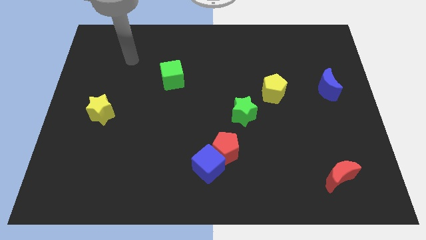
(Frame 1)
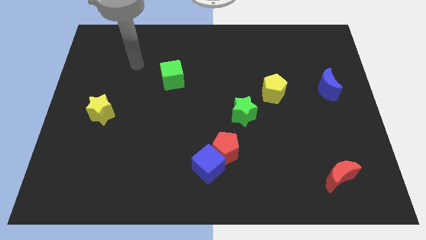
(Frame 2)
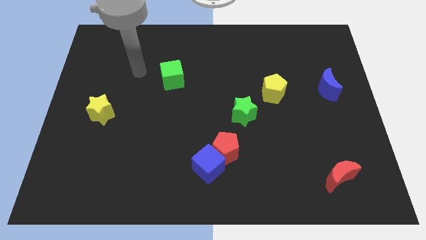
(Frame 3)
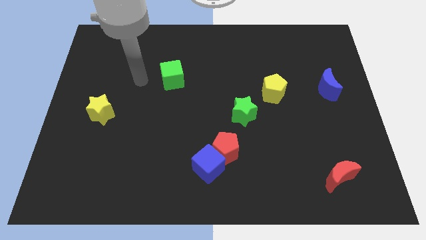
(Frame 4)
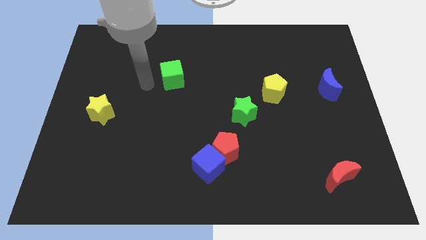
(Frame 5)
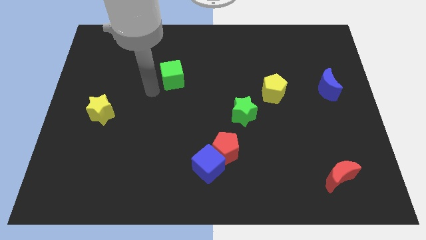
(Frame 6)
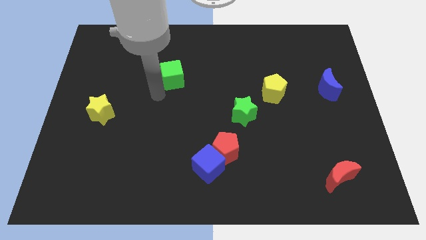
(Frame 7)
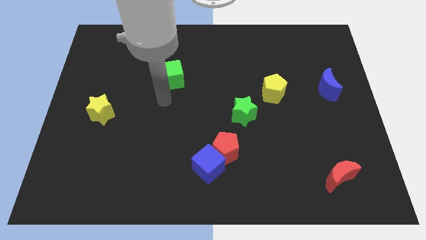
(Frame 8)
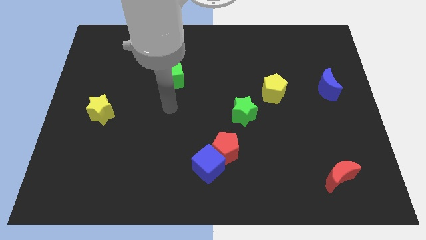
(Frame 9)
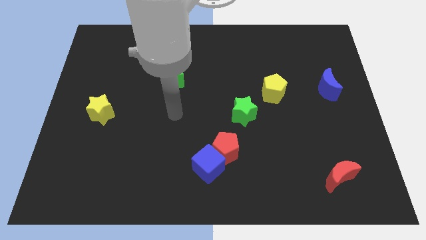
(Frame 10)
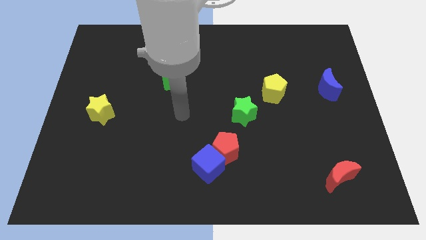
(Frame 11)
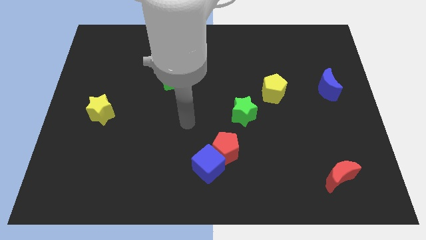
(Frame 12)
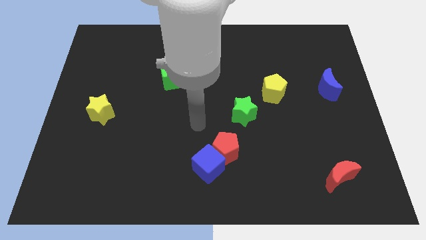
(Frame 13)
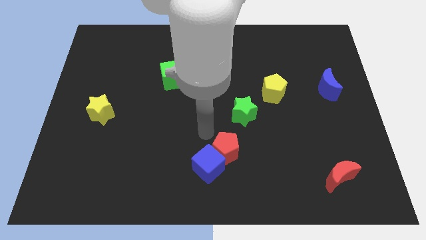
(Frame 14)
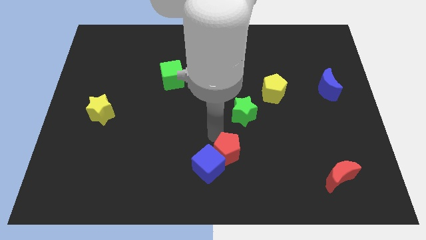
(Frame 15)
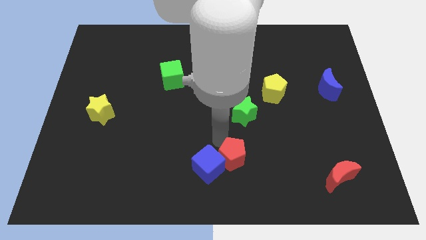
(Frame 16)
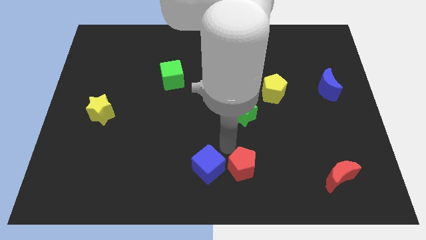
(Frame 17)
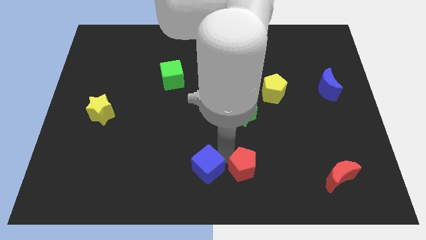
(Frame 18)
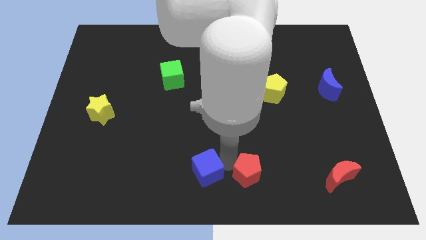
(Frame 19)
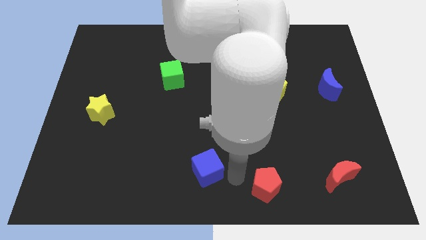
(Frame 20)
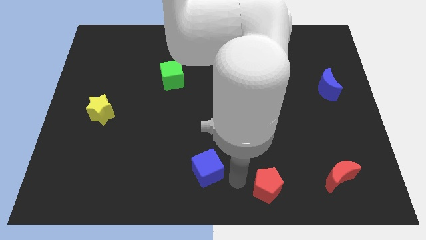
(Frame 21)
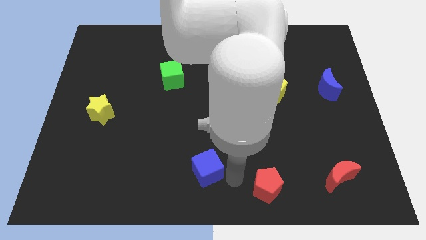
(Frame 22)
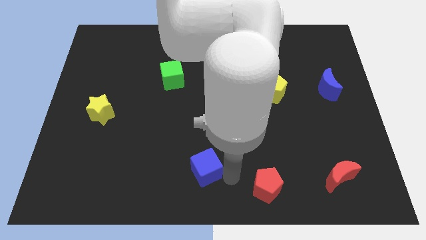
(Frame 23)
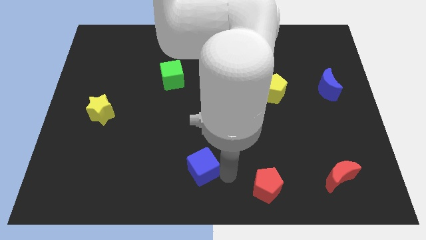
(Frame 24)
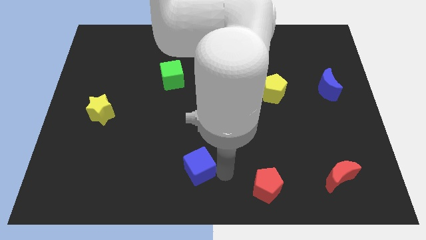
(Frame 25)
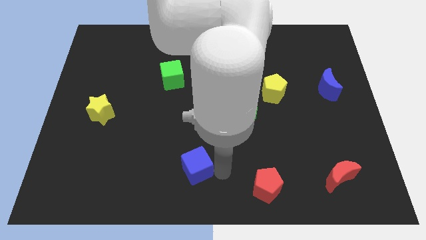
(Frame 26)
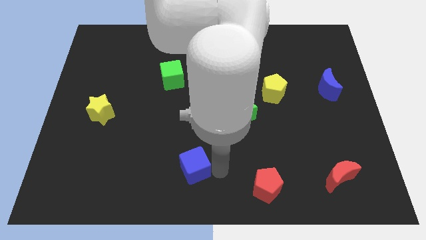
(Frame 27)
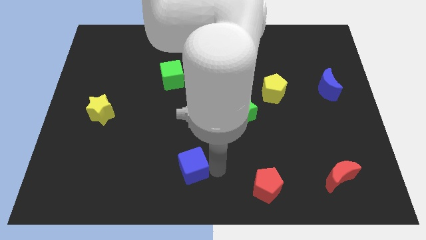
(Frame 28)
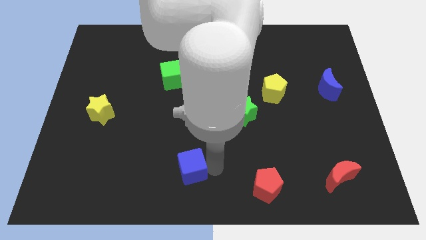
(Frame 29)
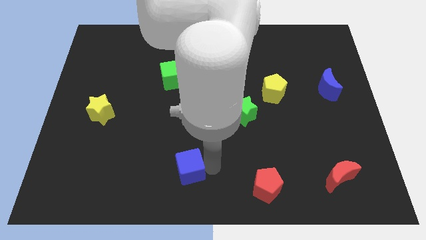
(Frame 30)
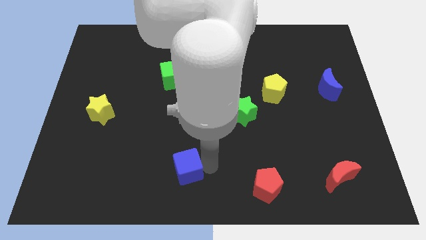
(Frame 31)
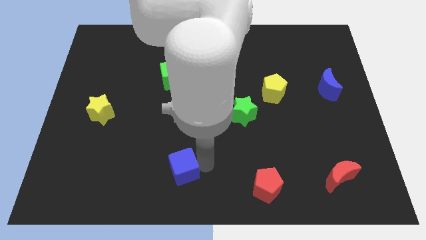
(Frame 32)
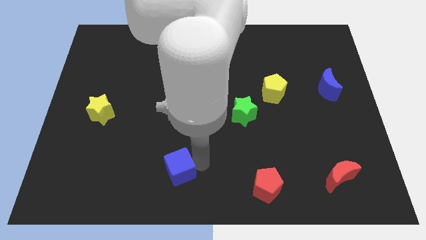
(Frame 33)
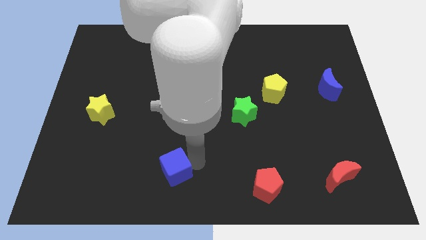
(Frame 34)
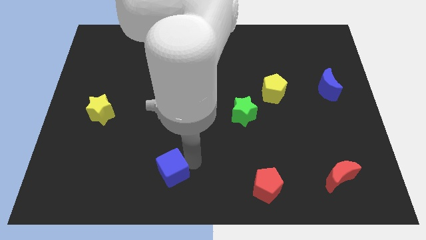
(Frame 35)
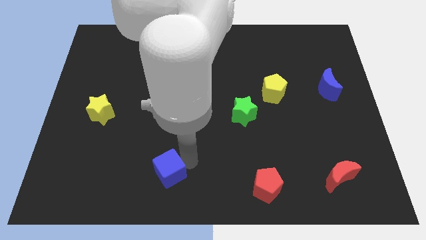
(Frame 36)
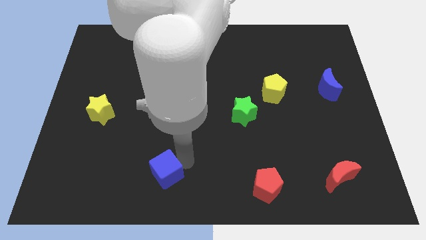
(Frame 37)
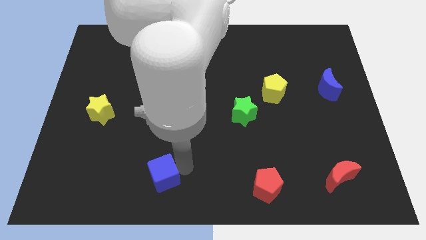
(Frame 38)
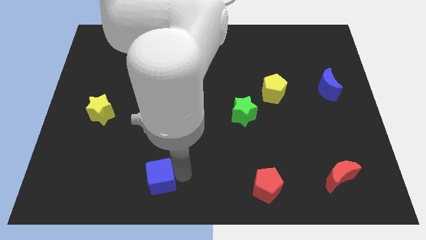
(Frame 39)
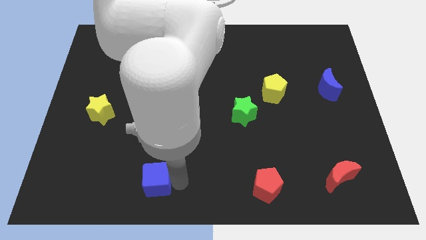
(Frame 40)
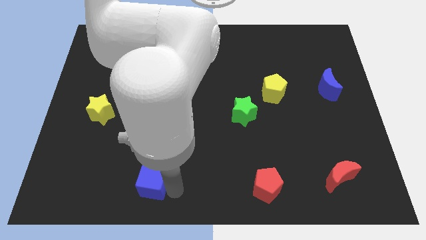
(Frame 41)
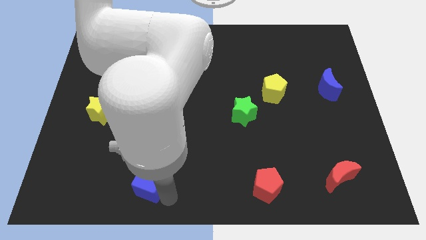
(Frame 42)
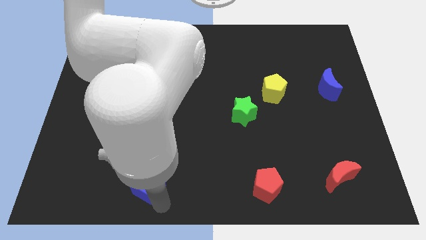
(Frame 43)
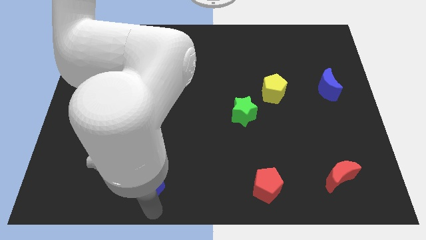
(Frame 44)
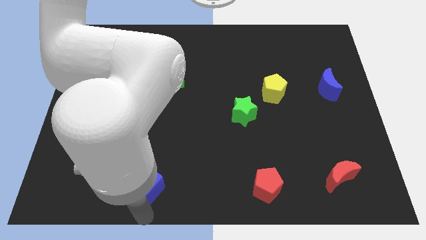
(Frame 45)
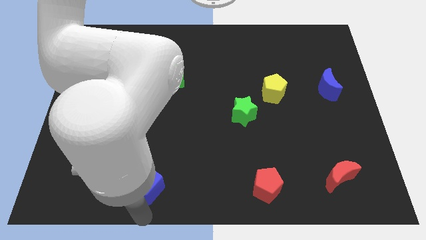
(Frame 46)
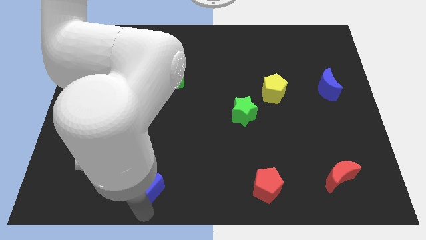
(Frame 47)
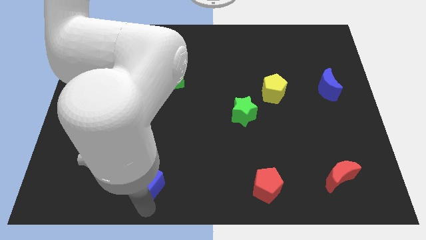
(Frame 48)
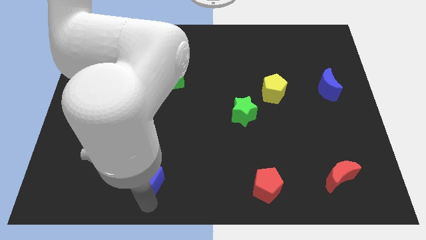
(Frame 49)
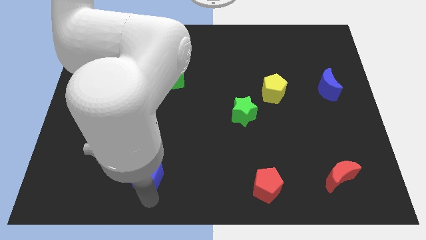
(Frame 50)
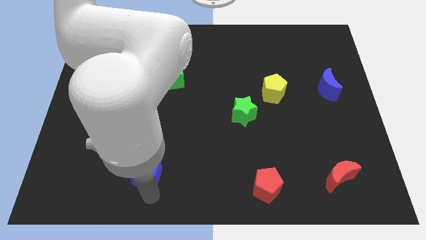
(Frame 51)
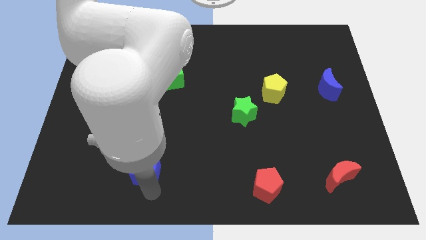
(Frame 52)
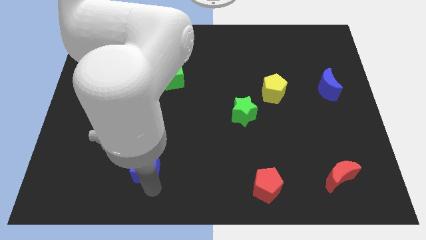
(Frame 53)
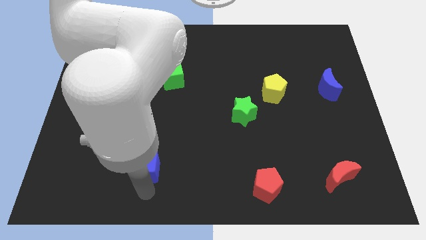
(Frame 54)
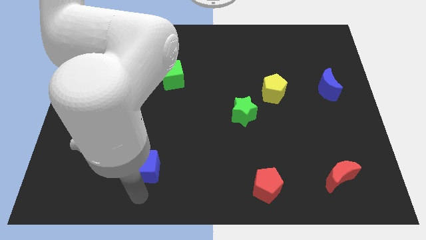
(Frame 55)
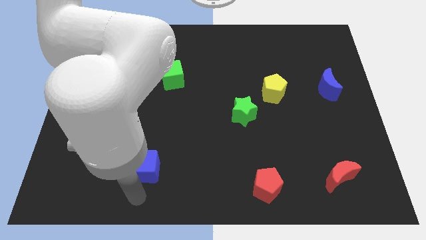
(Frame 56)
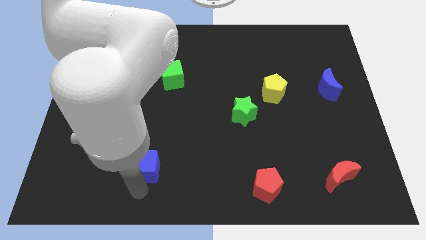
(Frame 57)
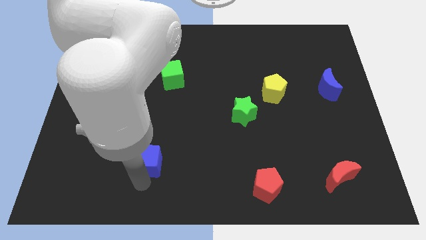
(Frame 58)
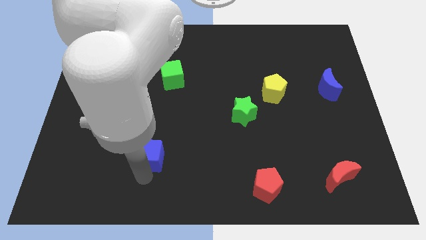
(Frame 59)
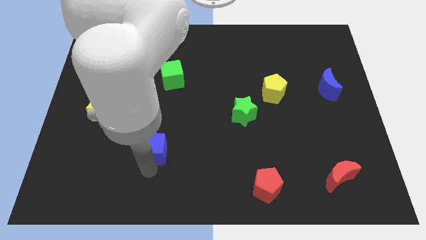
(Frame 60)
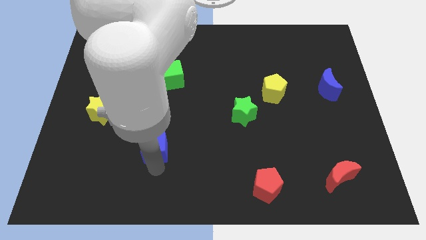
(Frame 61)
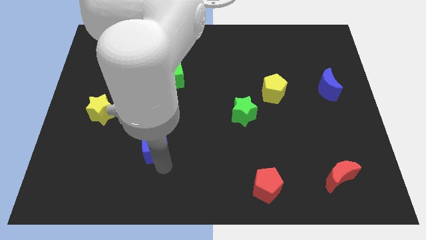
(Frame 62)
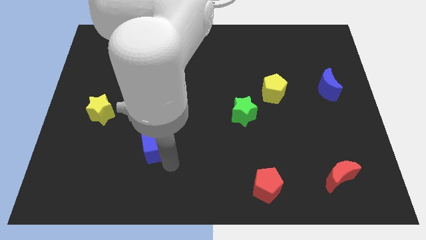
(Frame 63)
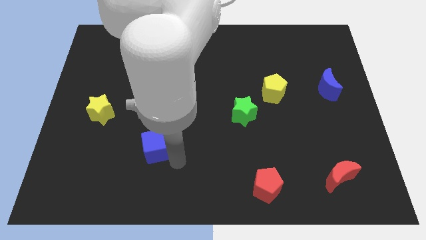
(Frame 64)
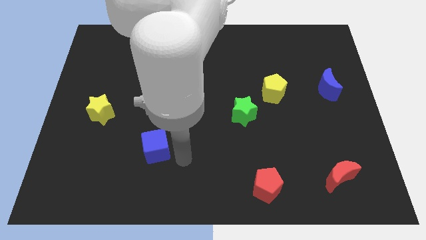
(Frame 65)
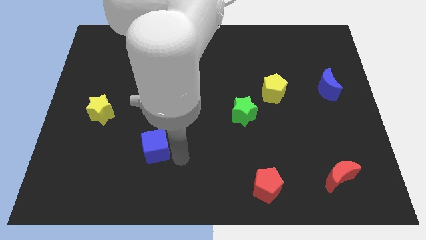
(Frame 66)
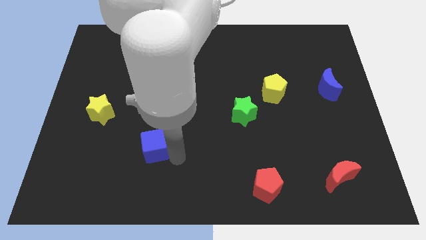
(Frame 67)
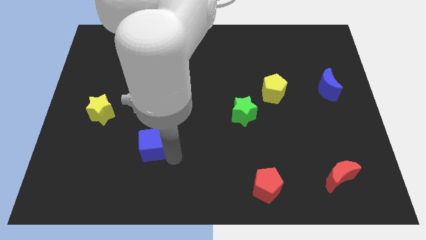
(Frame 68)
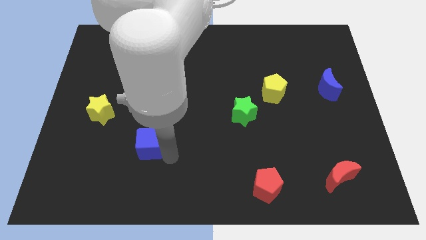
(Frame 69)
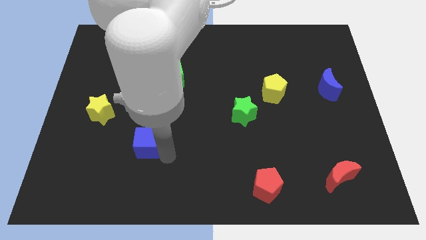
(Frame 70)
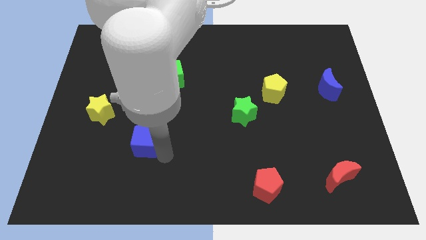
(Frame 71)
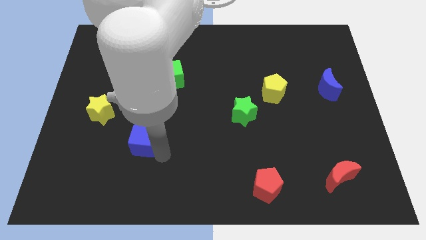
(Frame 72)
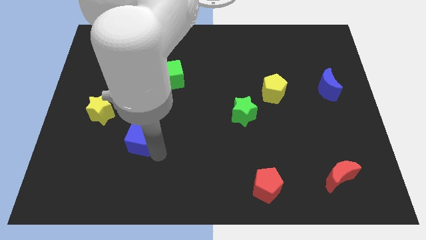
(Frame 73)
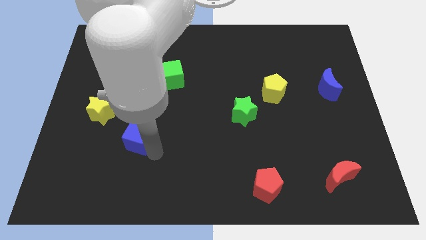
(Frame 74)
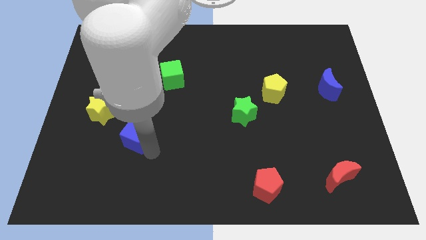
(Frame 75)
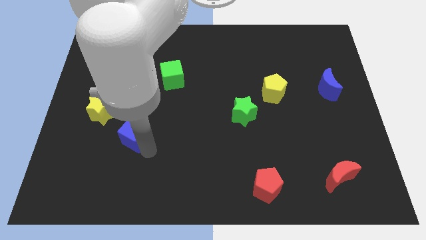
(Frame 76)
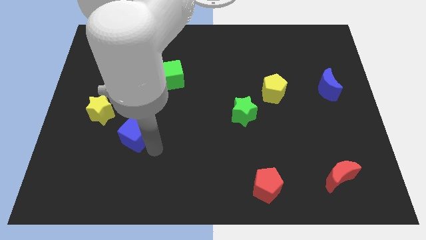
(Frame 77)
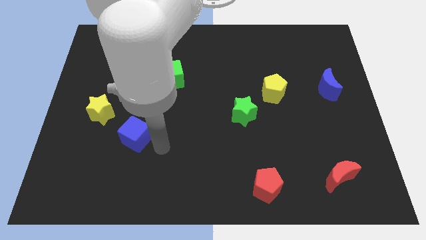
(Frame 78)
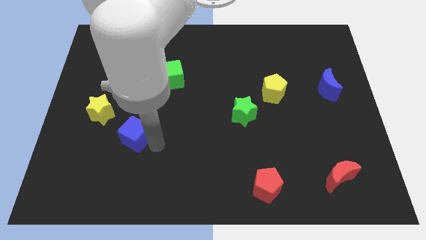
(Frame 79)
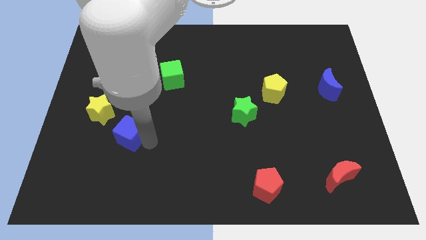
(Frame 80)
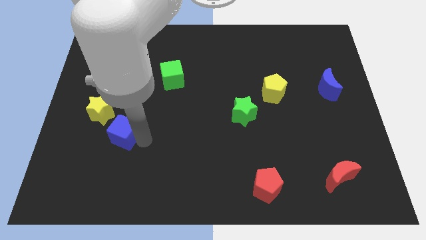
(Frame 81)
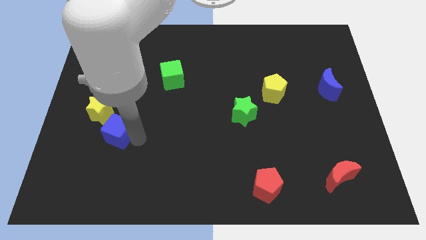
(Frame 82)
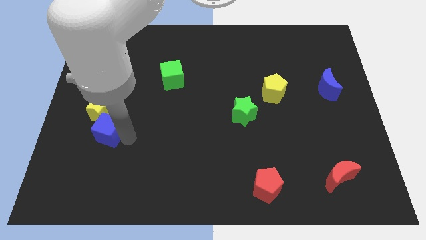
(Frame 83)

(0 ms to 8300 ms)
move the blue cube close to the yellow star
